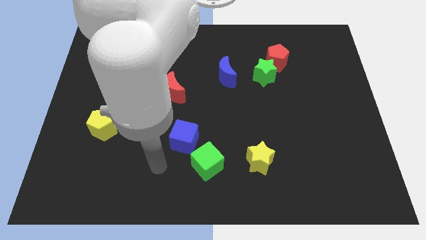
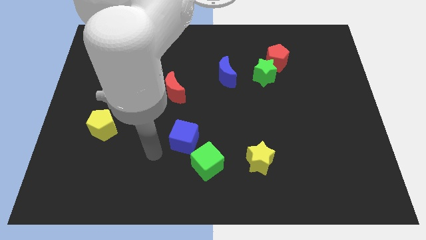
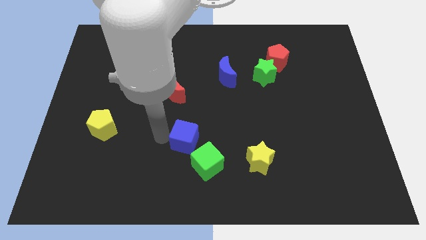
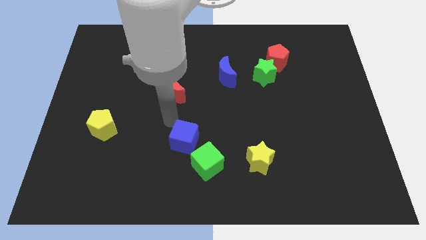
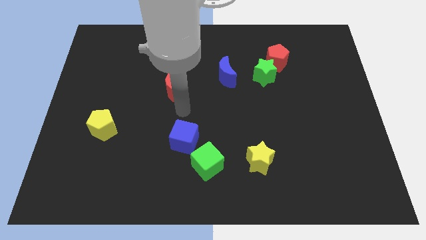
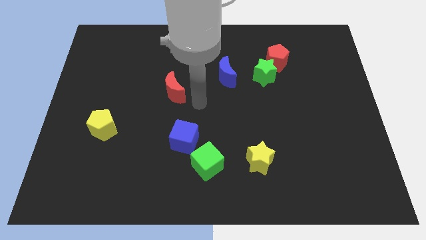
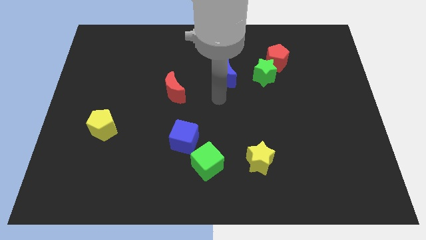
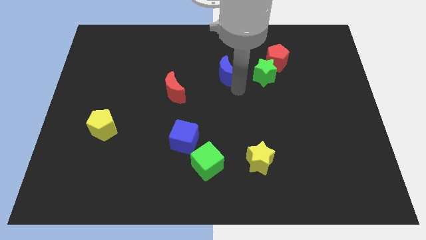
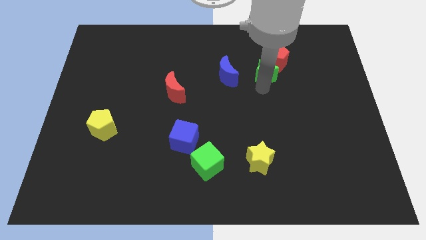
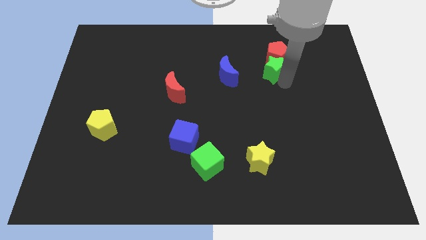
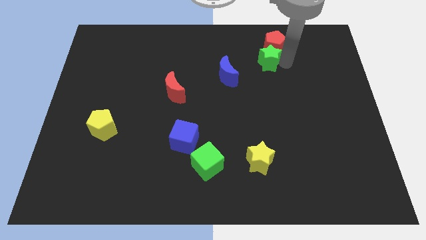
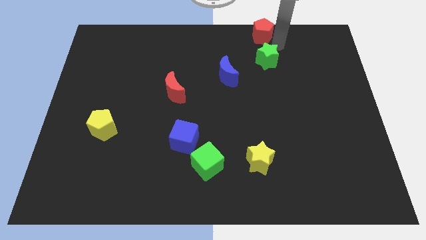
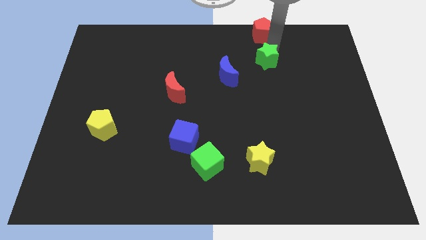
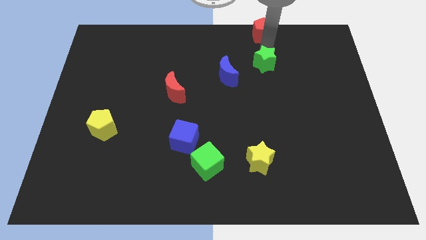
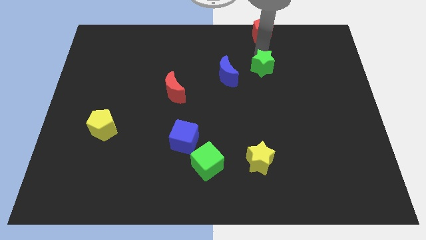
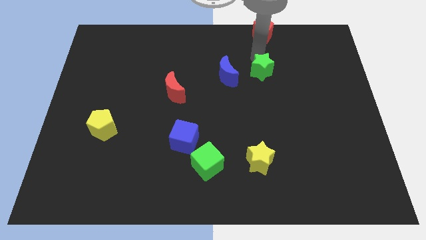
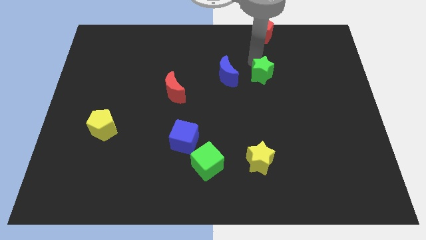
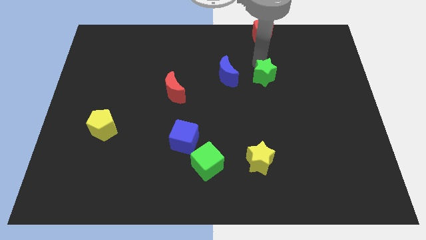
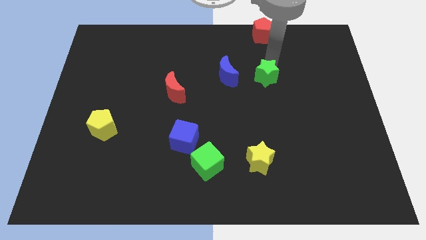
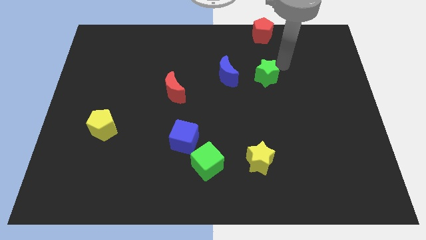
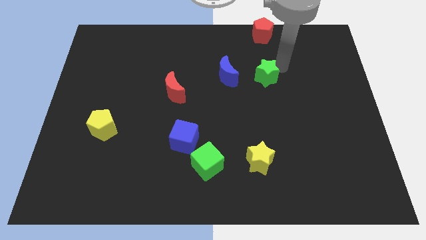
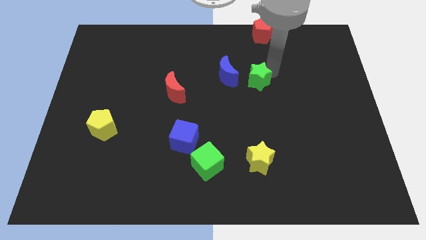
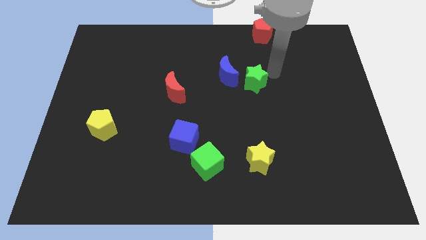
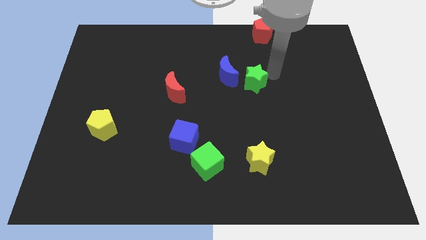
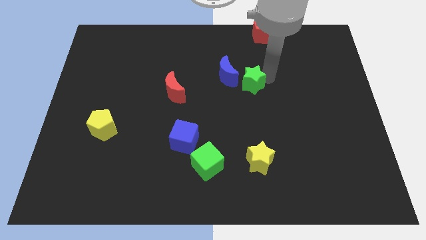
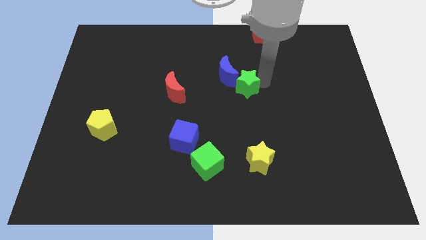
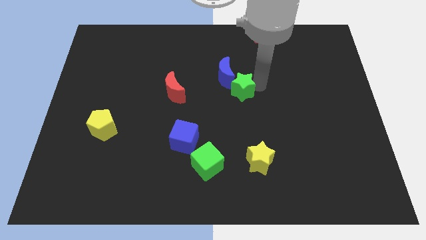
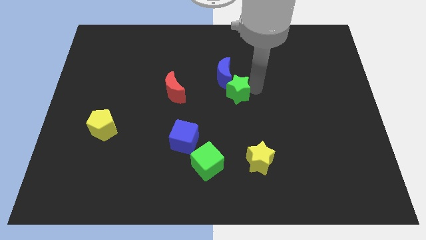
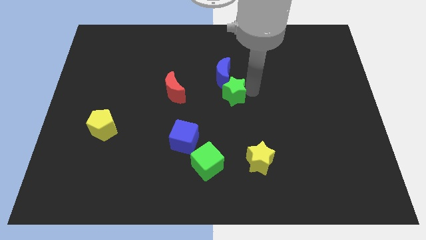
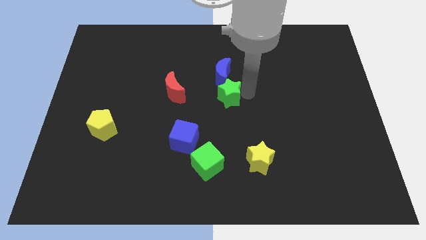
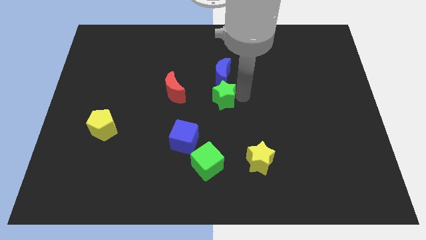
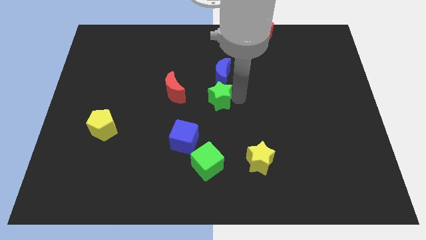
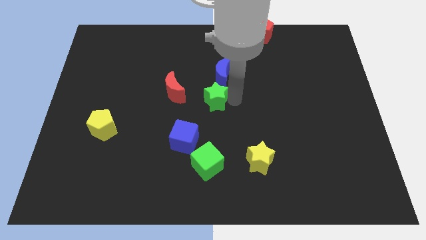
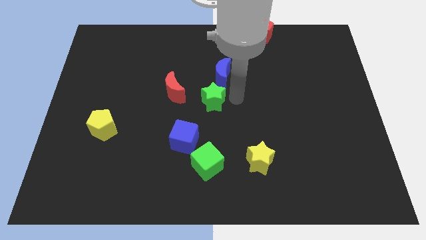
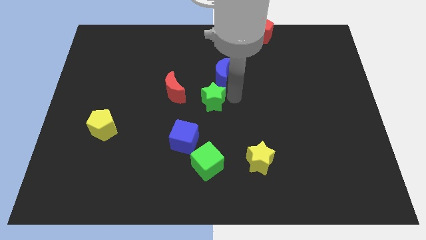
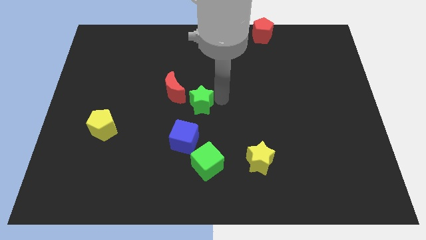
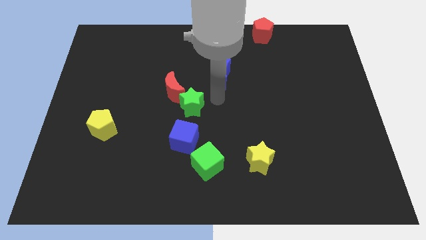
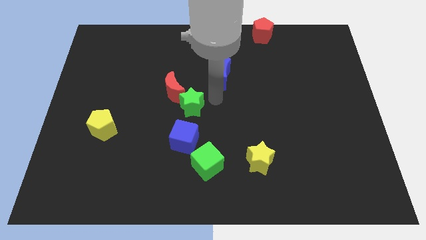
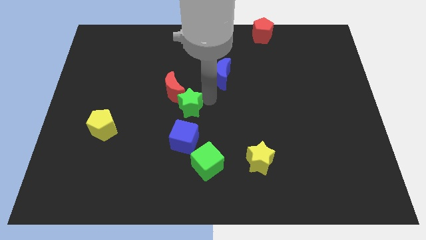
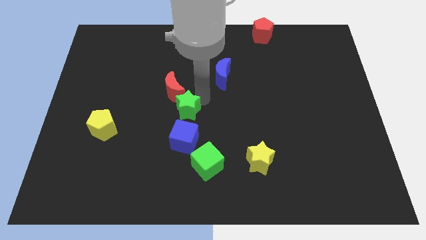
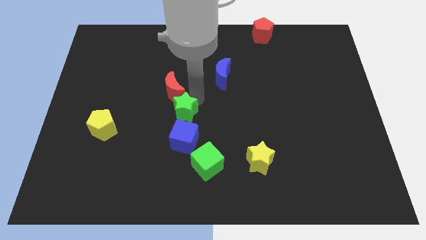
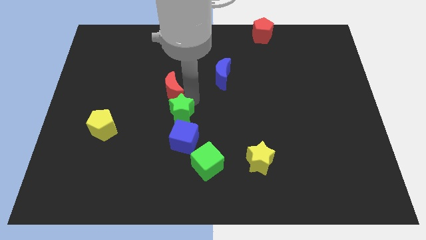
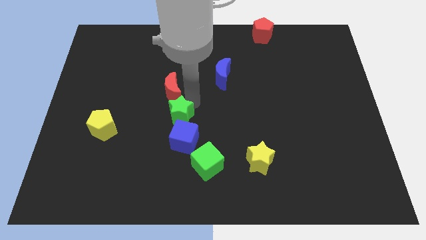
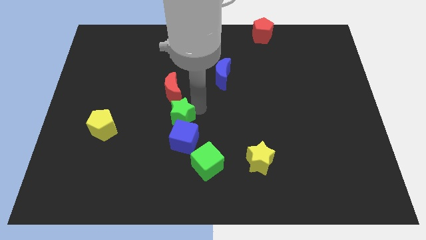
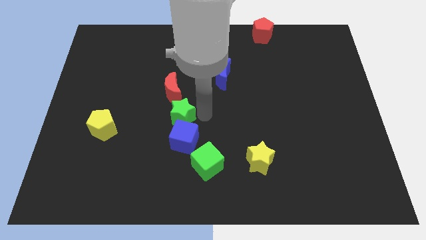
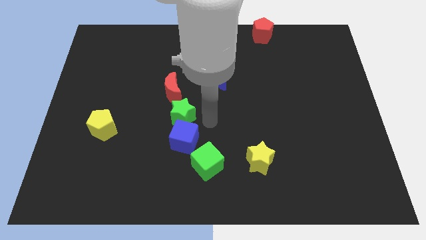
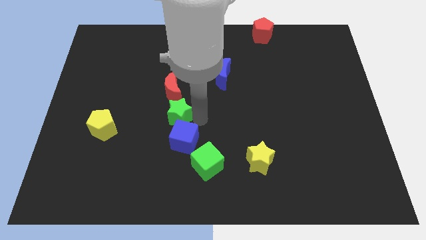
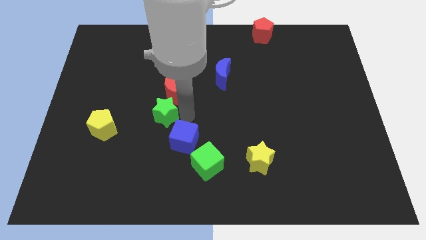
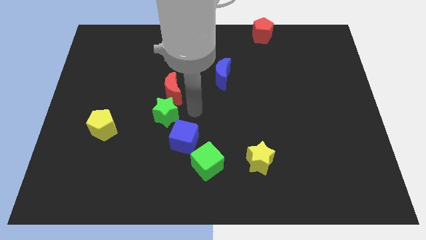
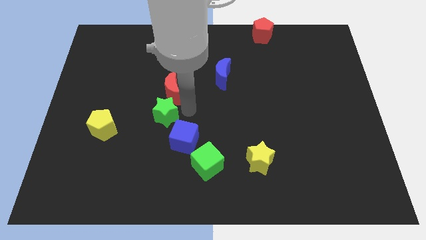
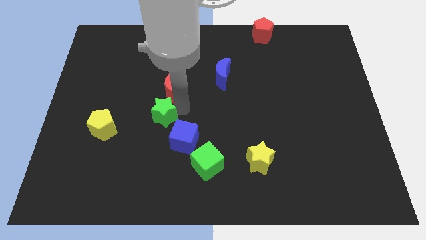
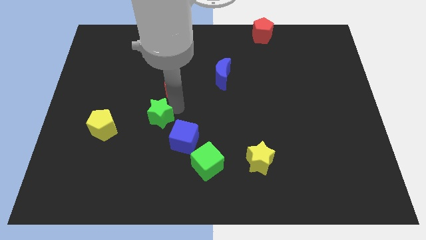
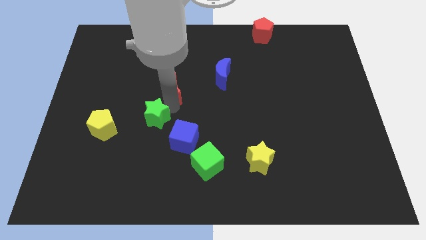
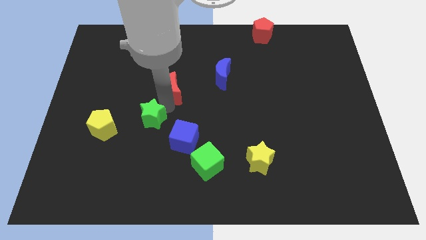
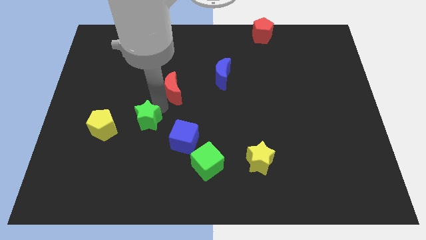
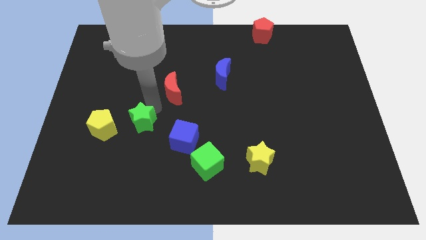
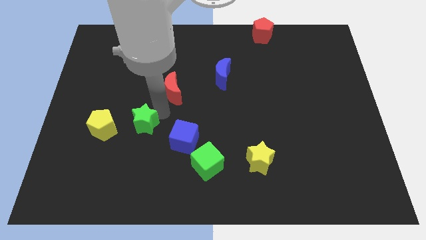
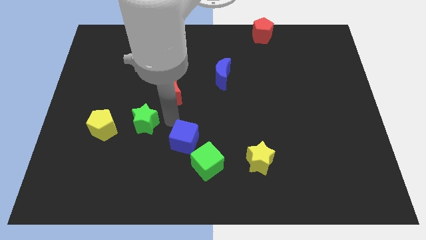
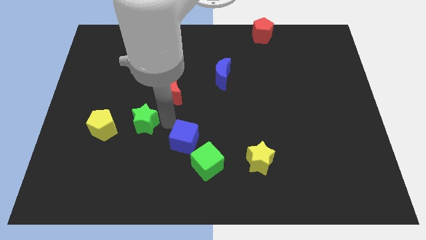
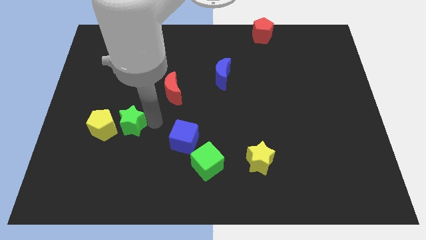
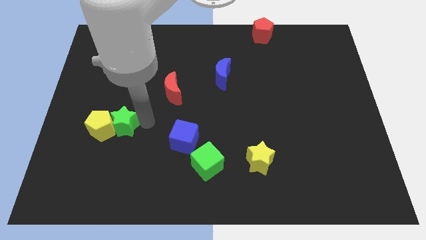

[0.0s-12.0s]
slide the green star towards the yellow pentagon

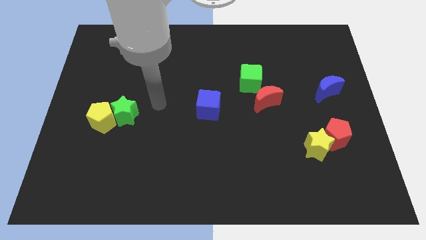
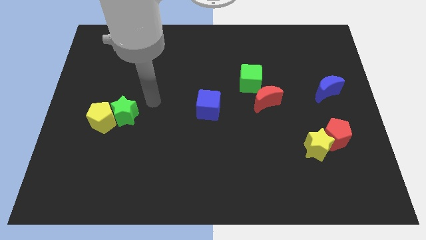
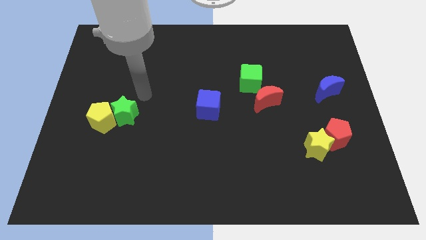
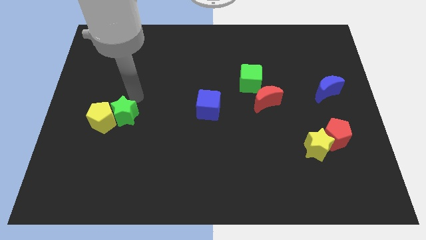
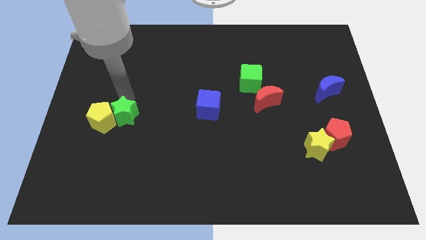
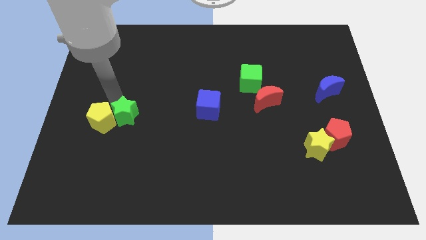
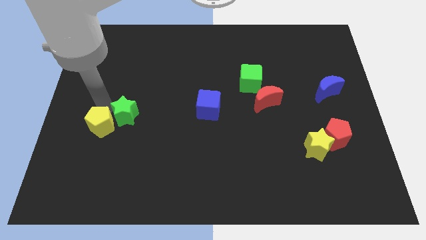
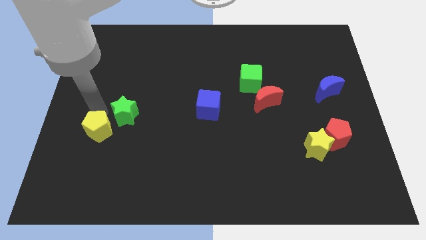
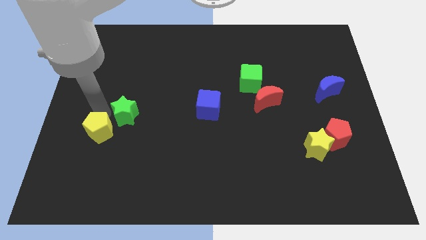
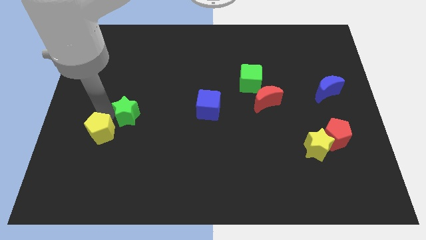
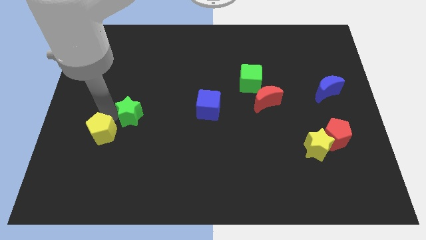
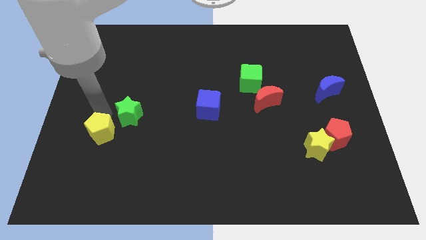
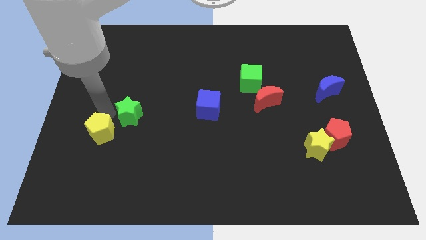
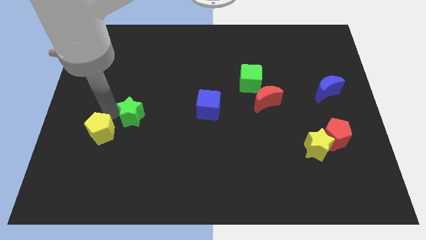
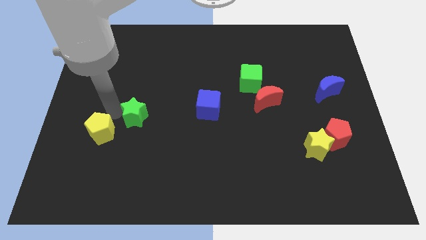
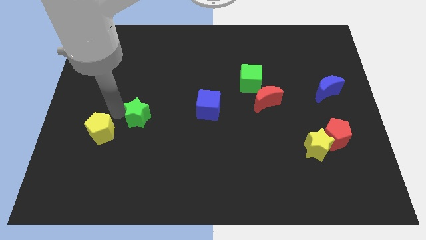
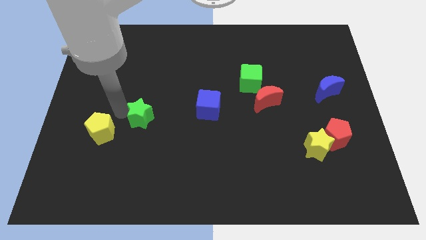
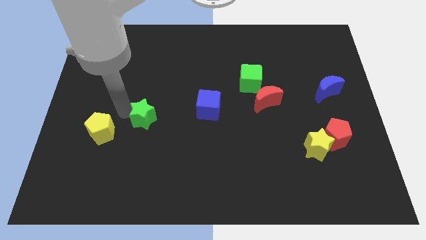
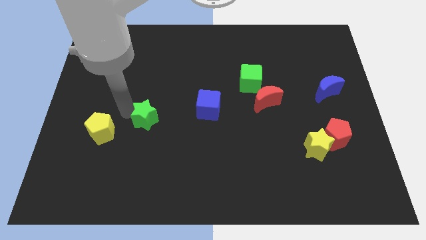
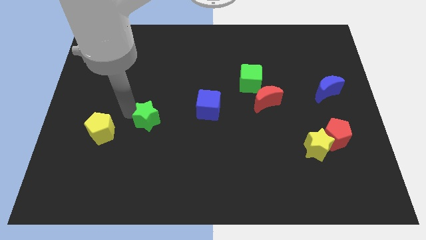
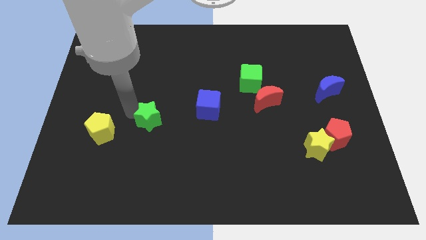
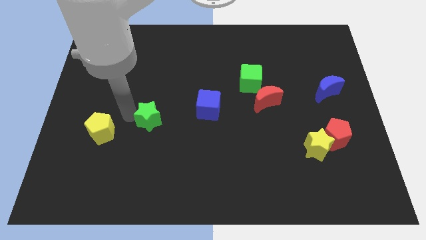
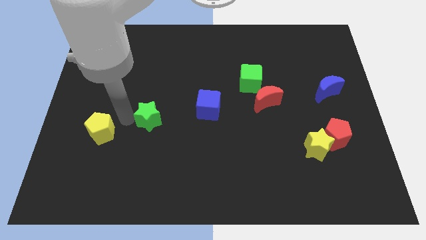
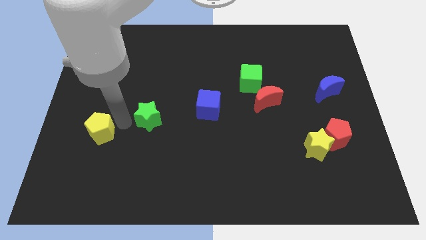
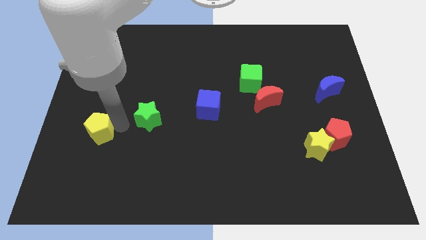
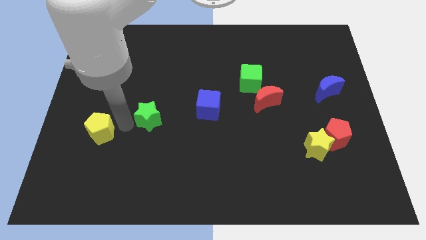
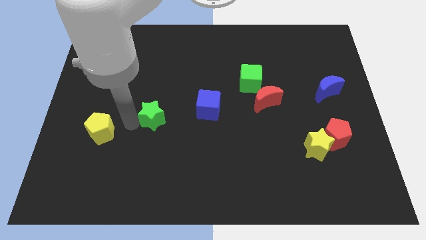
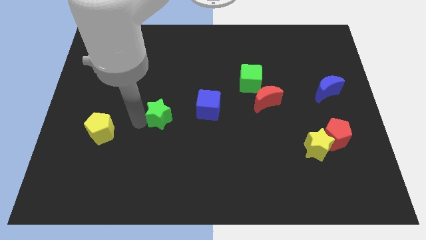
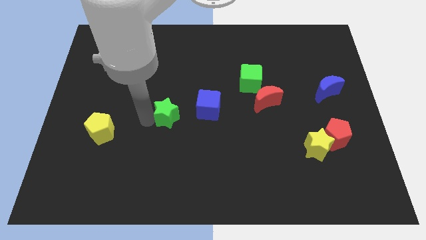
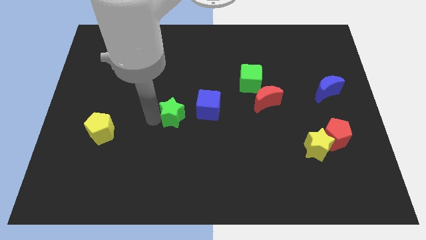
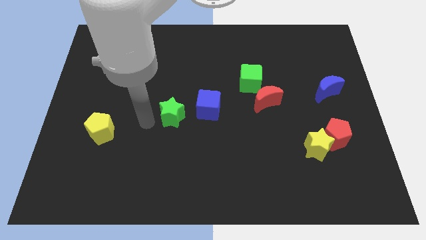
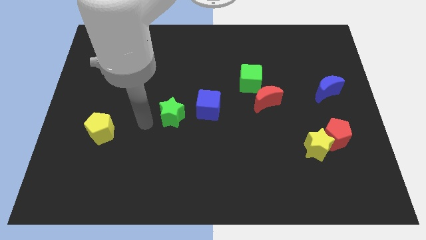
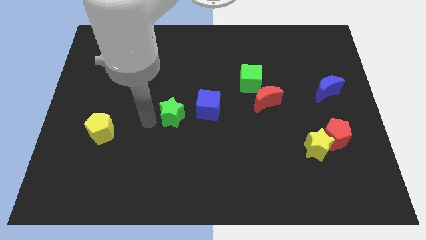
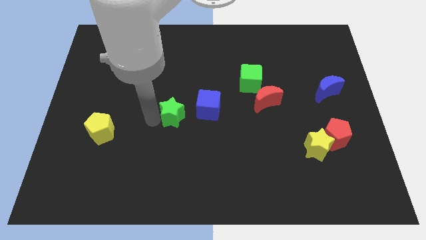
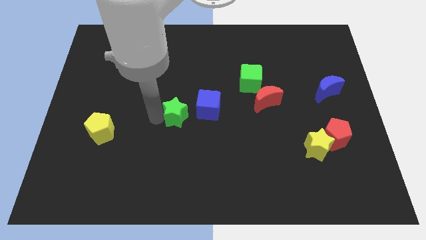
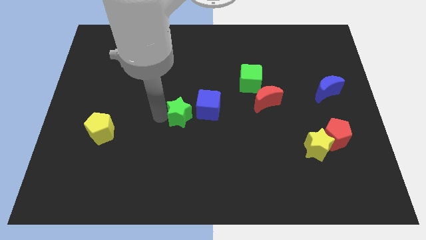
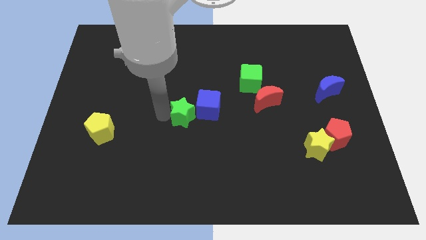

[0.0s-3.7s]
move the green star next to the blue cube
